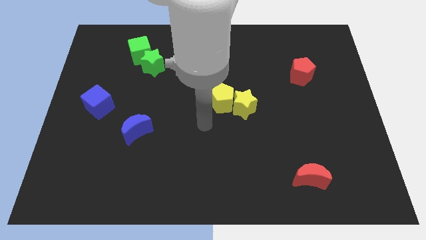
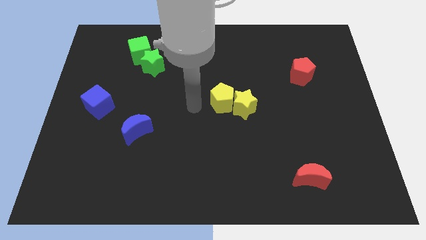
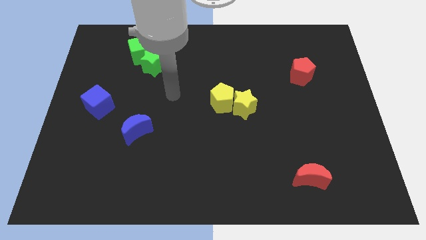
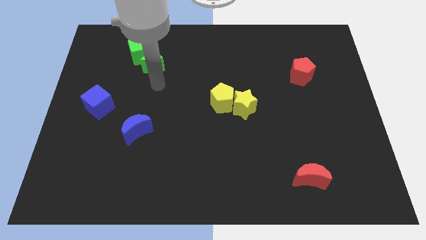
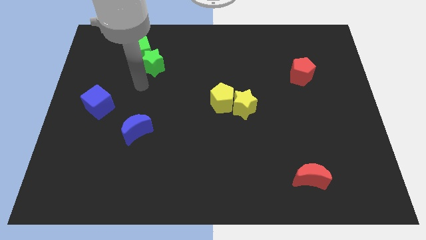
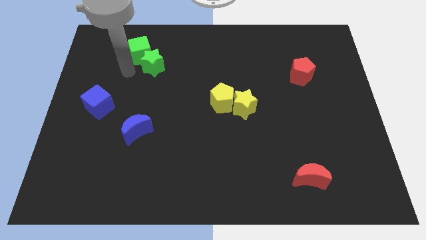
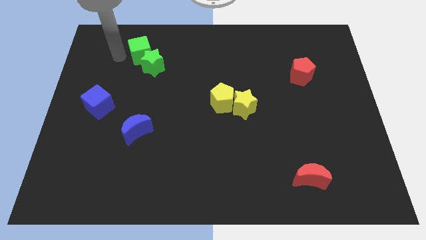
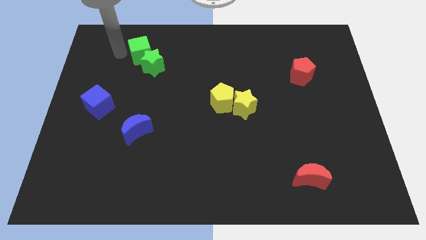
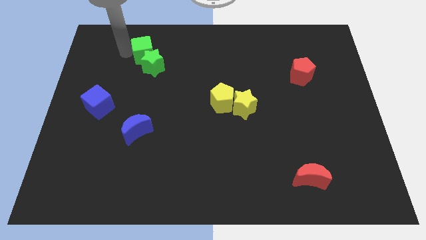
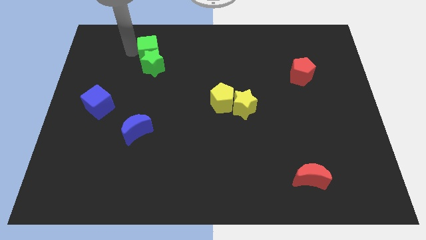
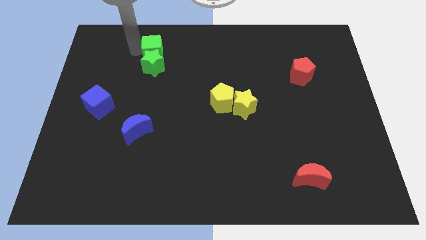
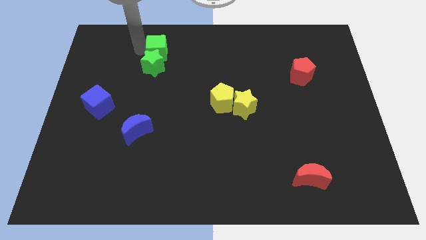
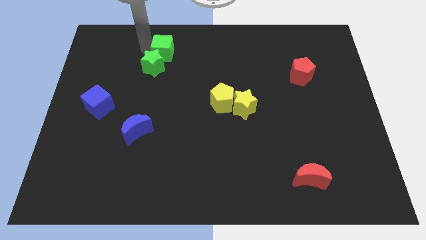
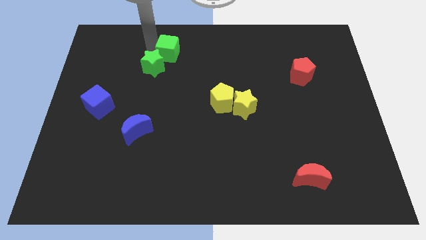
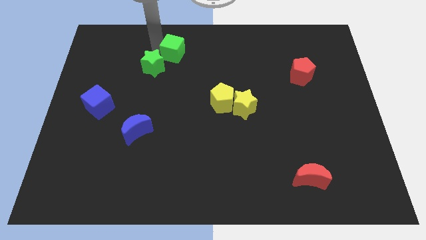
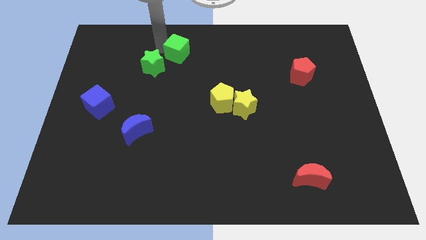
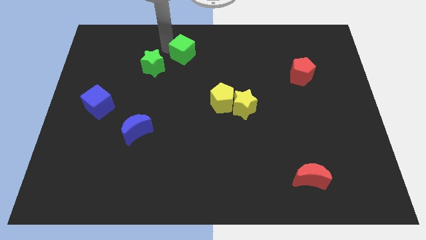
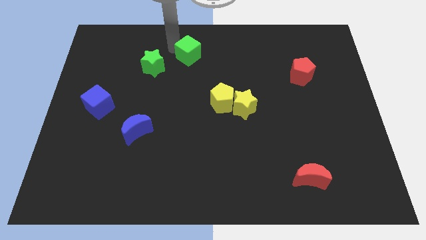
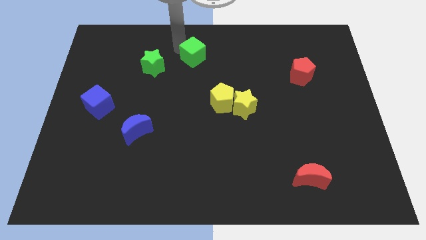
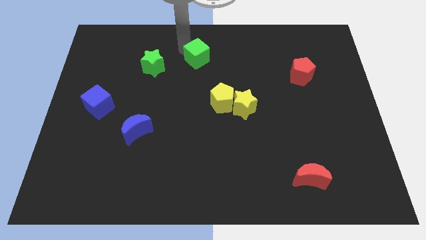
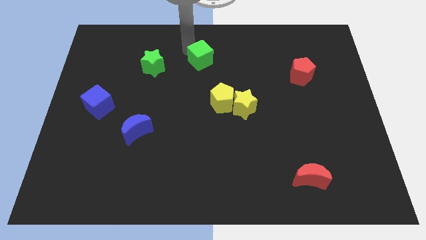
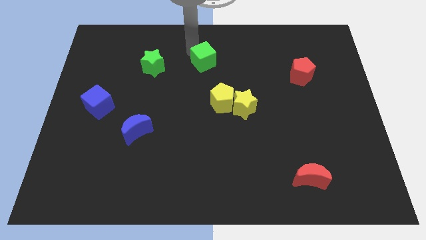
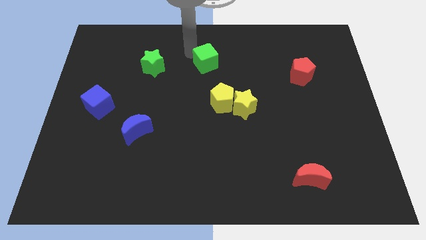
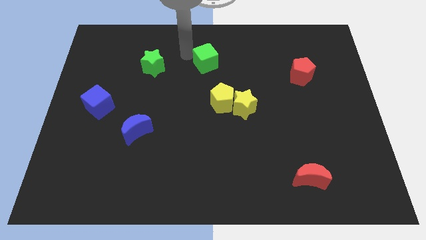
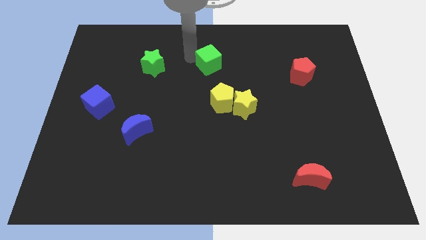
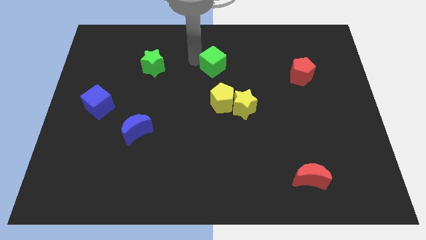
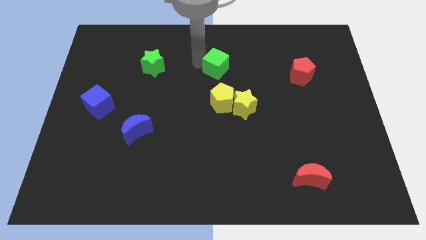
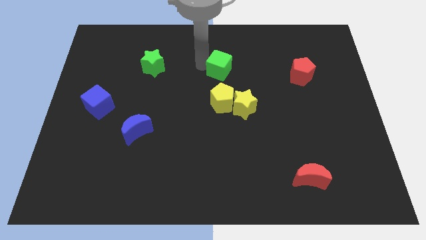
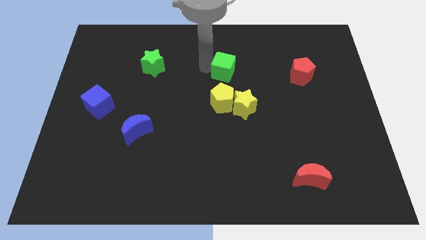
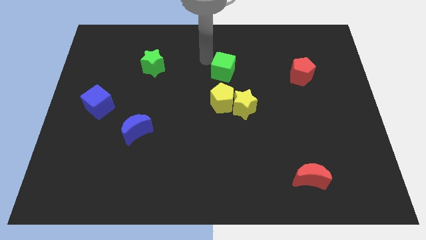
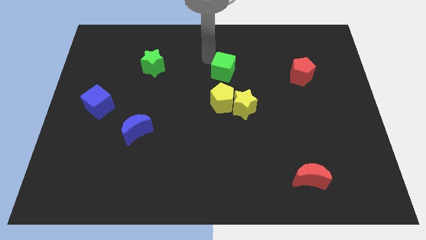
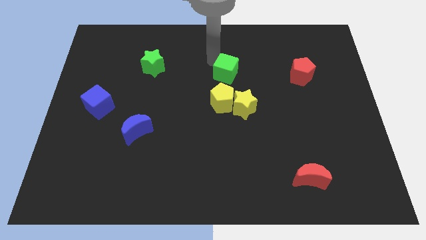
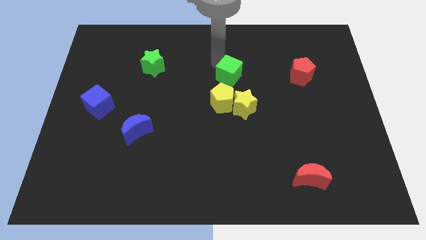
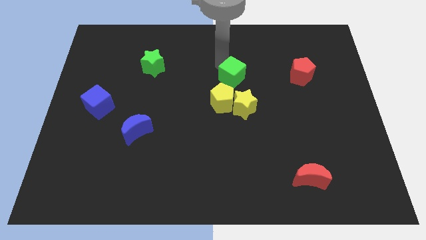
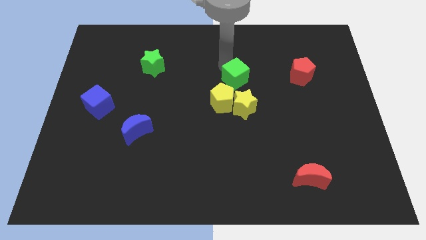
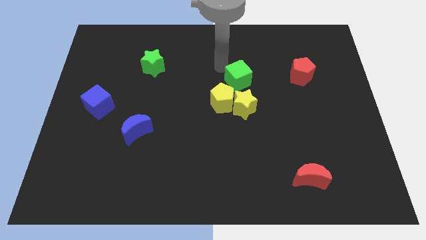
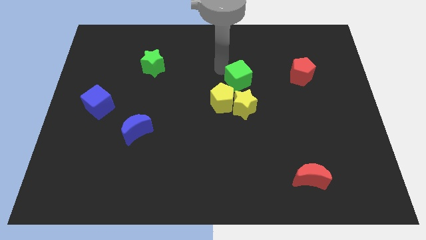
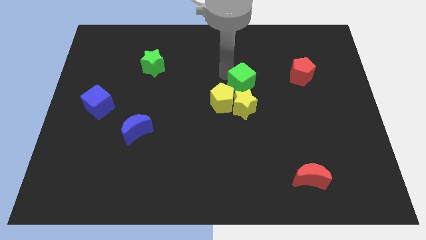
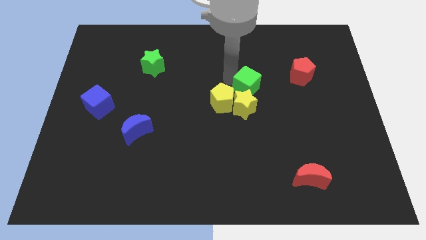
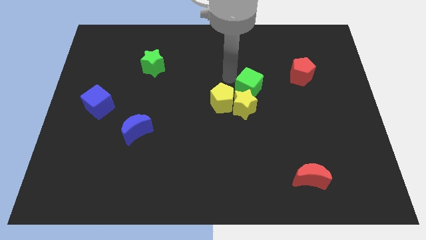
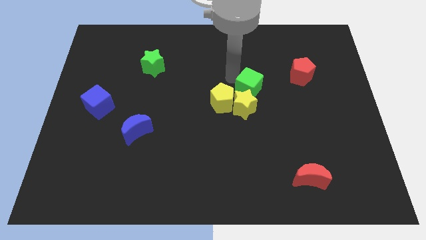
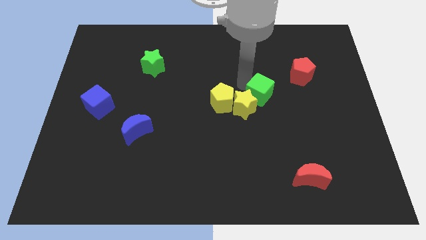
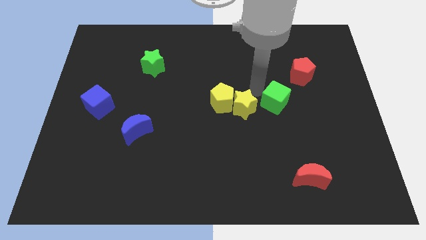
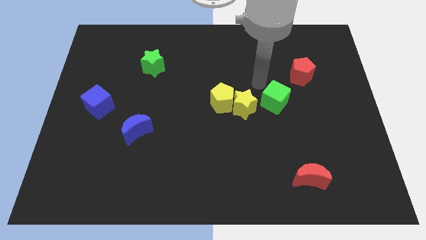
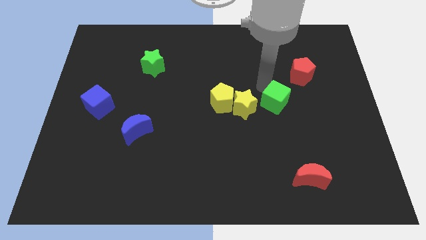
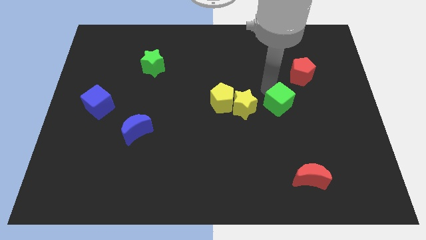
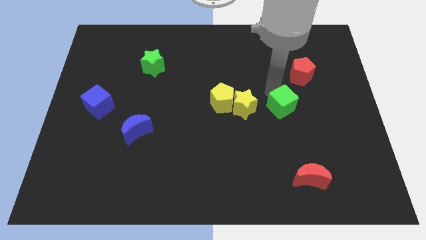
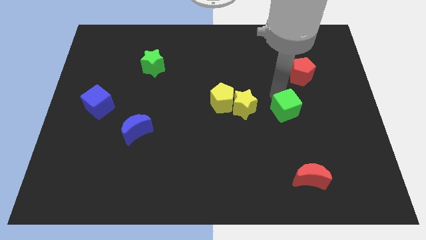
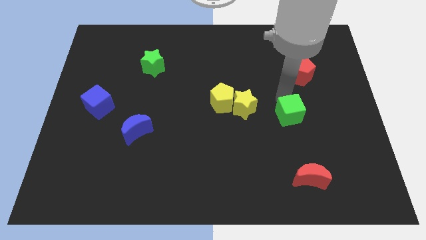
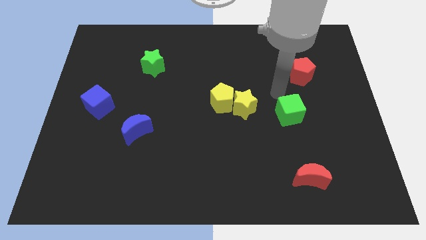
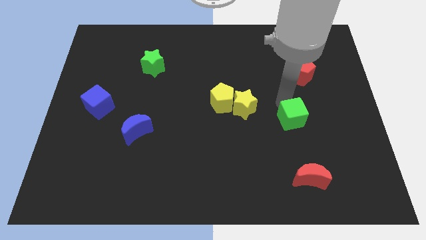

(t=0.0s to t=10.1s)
slide the green cube to the top of the red moon

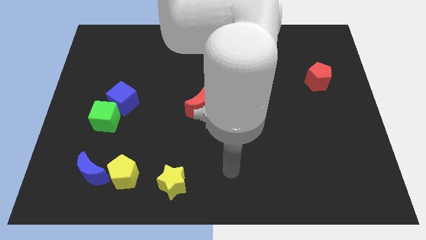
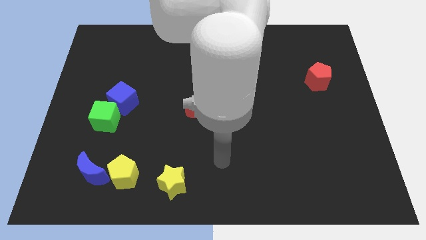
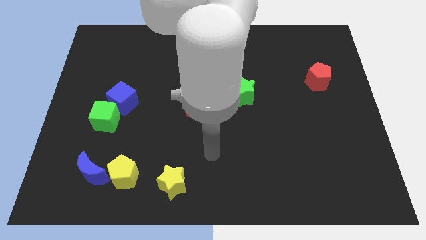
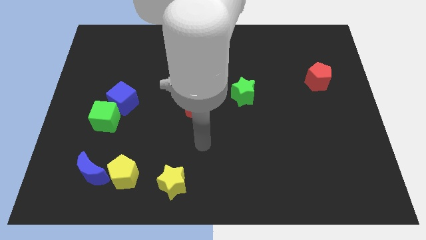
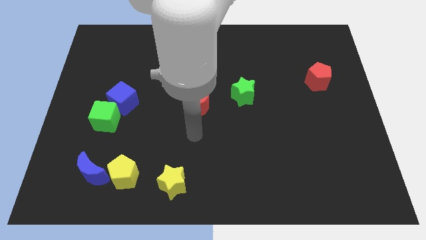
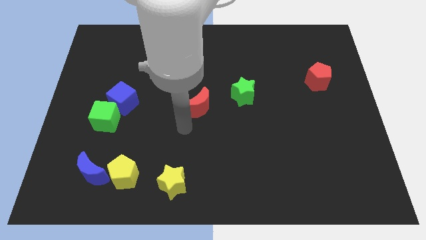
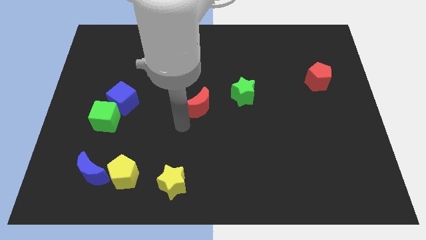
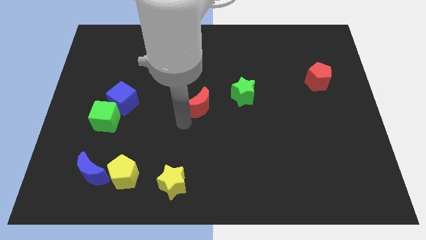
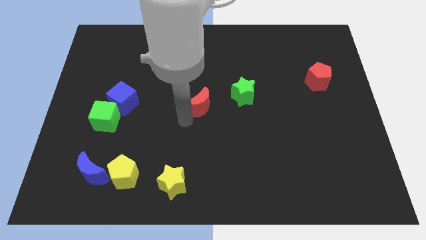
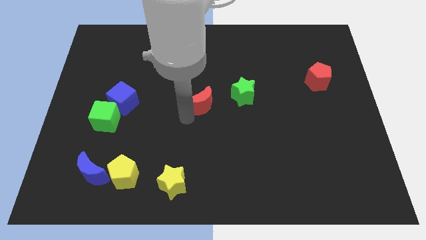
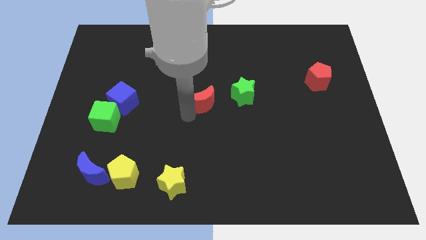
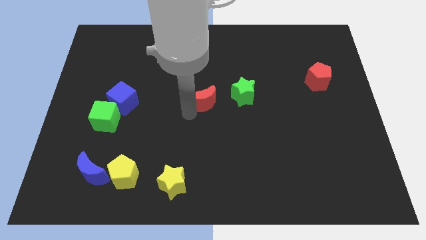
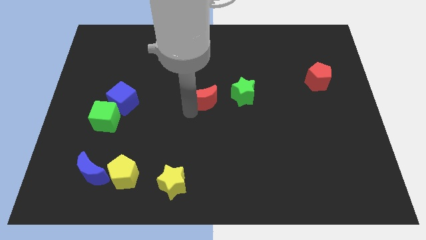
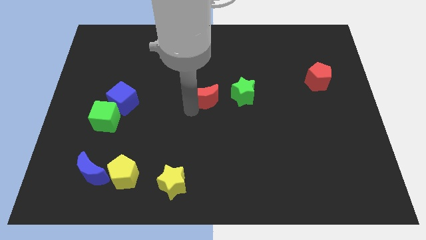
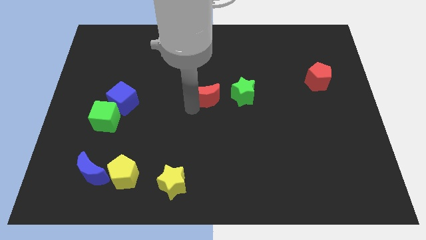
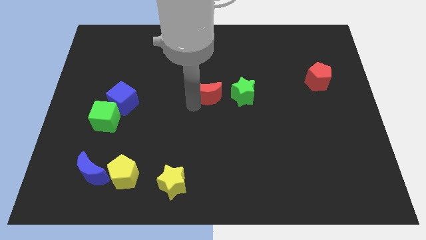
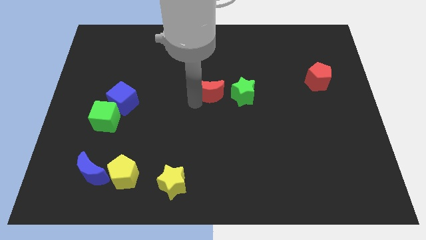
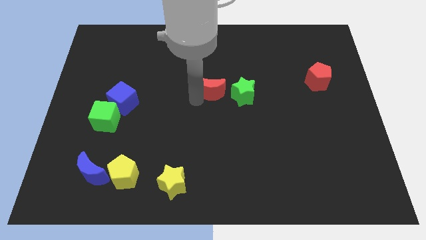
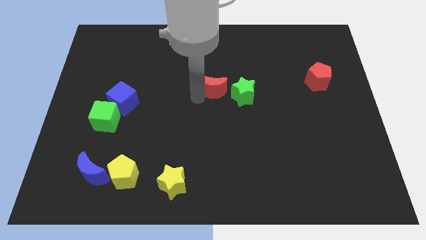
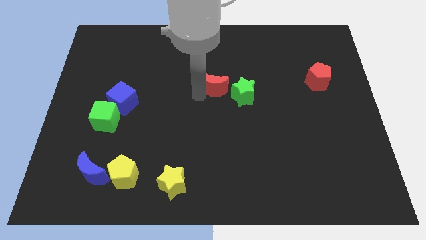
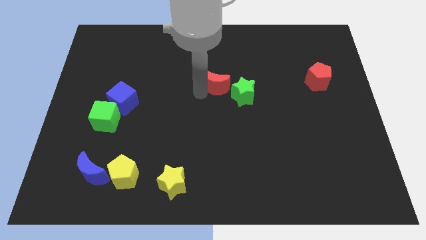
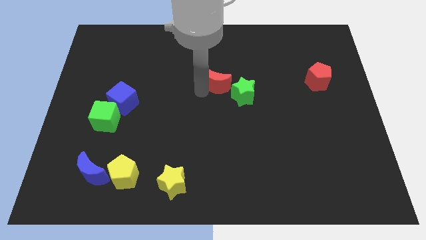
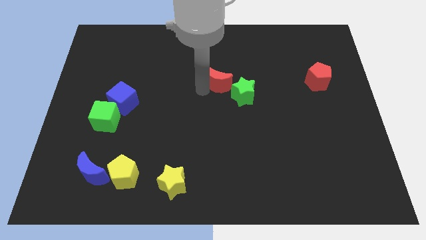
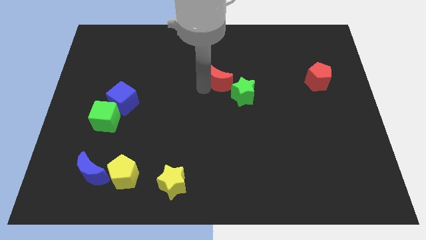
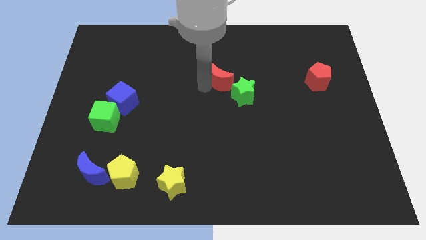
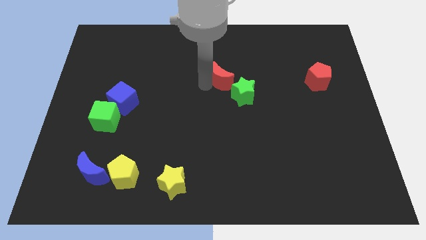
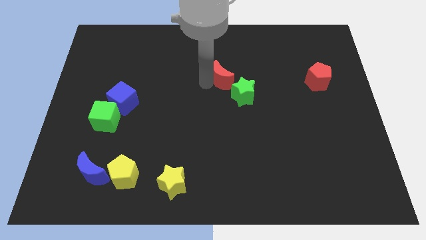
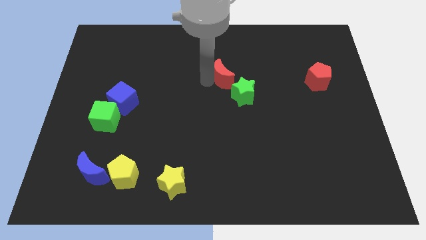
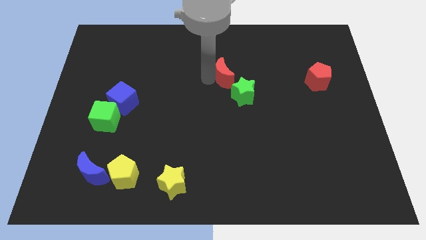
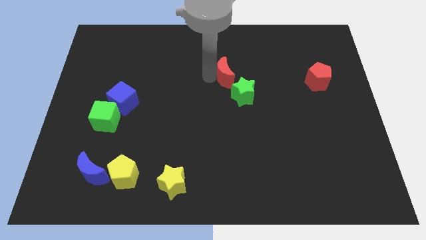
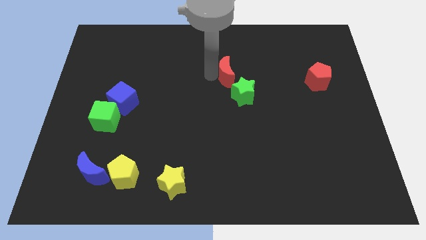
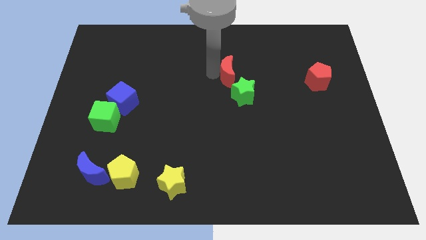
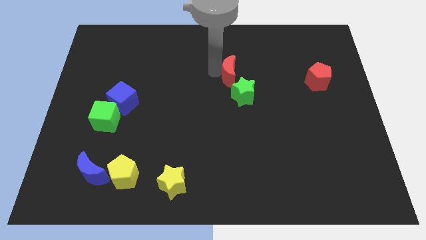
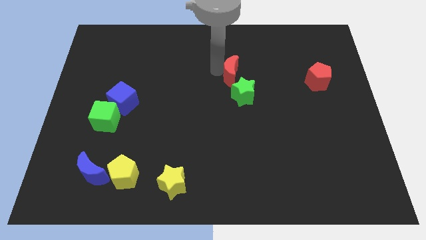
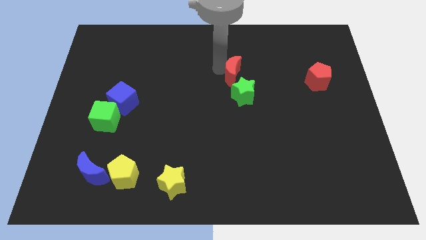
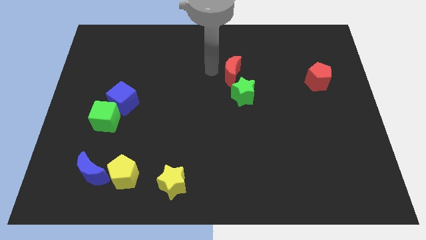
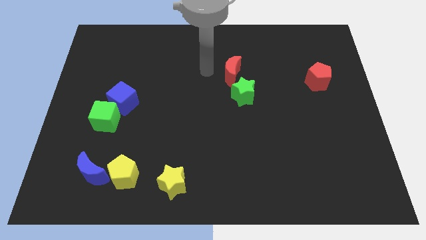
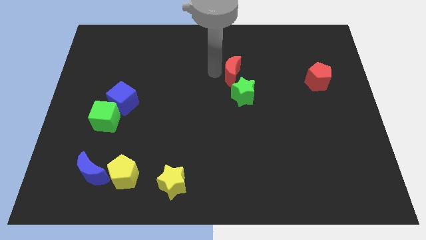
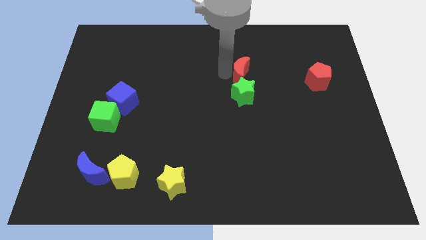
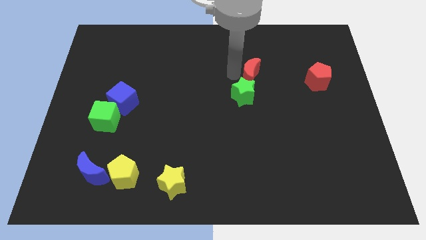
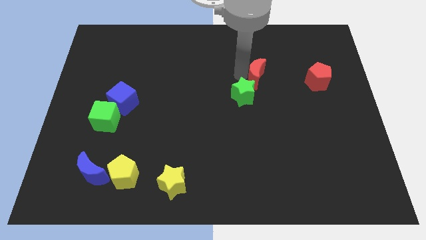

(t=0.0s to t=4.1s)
slide the red moon left of the red pentagon
